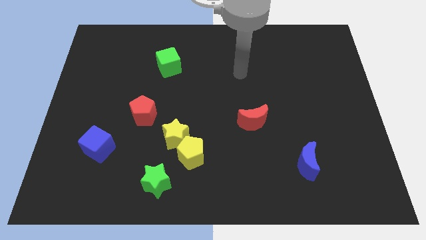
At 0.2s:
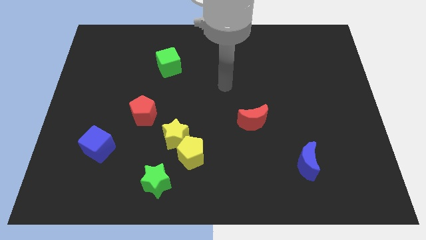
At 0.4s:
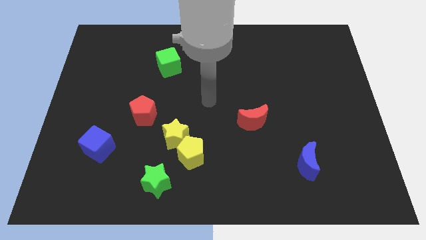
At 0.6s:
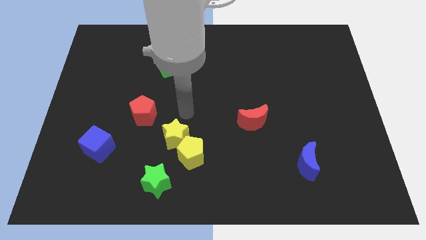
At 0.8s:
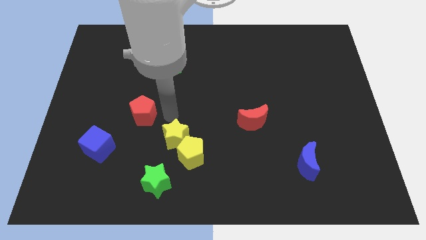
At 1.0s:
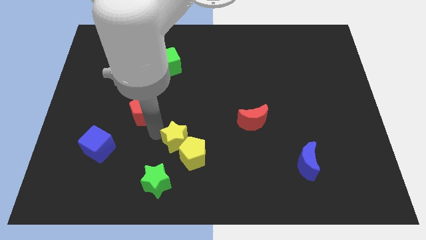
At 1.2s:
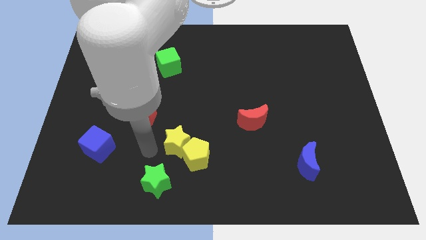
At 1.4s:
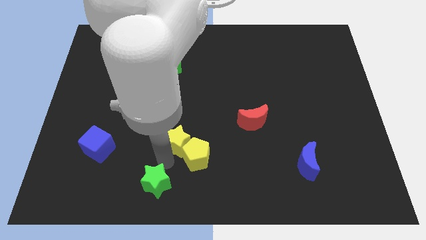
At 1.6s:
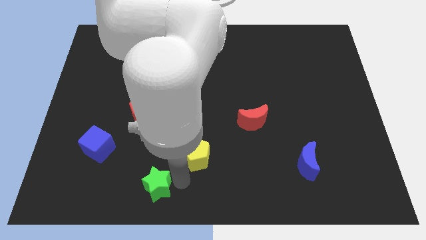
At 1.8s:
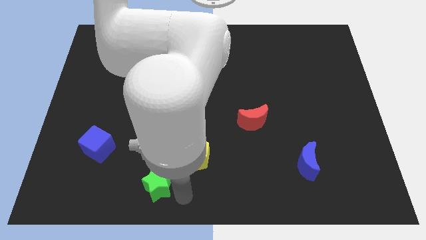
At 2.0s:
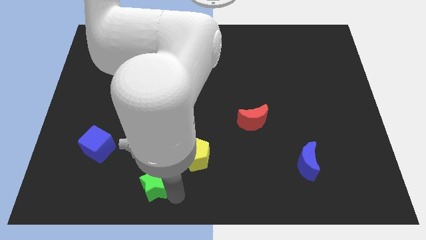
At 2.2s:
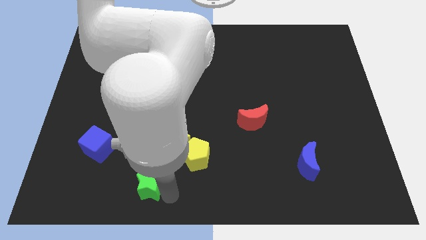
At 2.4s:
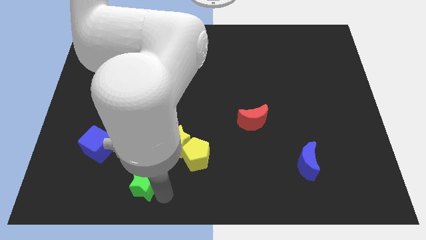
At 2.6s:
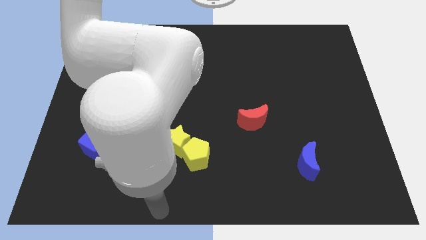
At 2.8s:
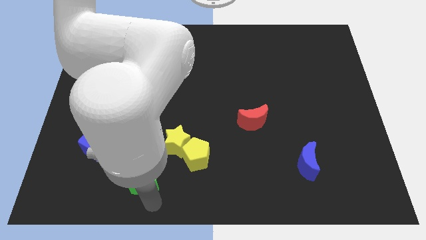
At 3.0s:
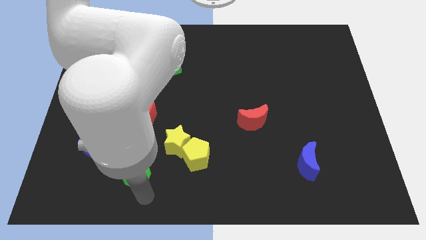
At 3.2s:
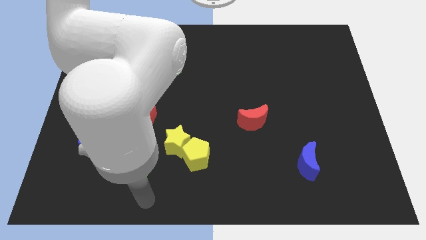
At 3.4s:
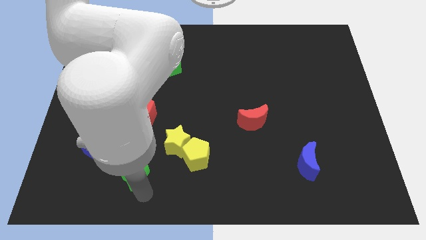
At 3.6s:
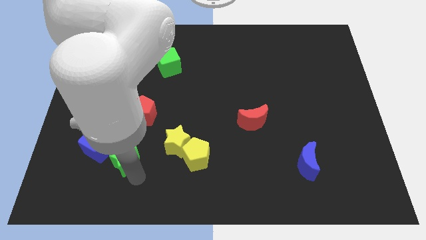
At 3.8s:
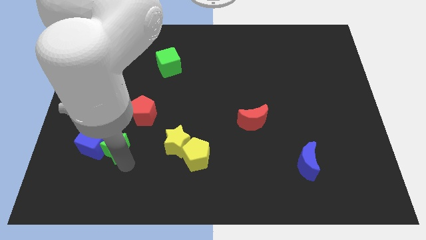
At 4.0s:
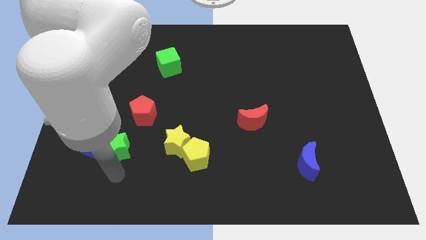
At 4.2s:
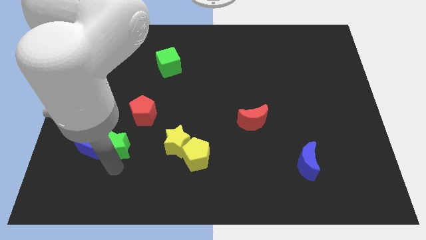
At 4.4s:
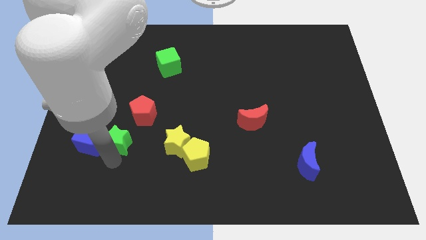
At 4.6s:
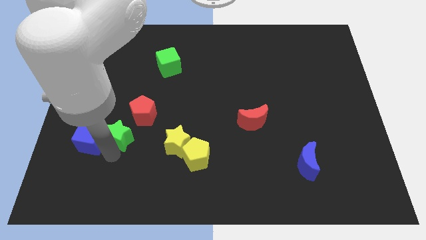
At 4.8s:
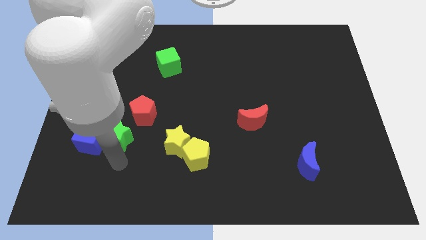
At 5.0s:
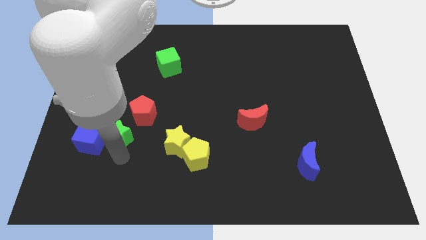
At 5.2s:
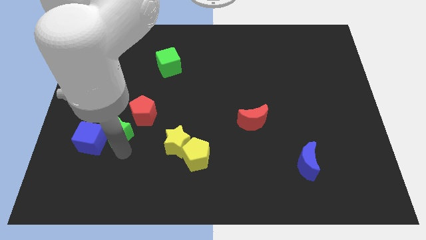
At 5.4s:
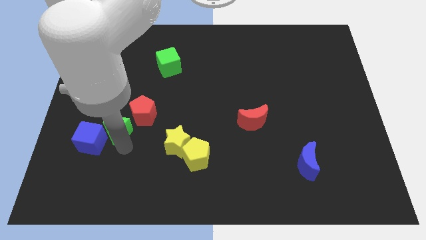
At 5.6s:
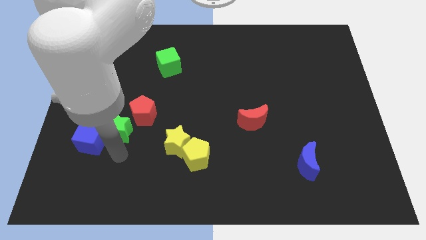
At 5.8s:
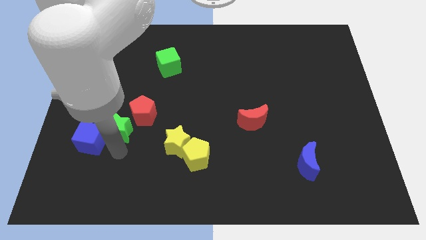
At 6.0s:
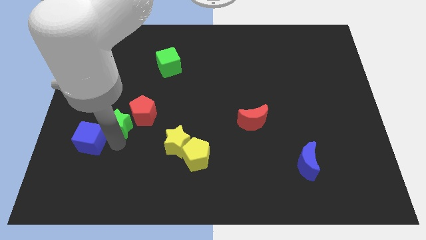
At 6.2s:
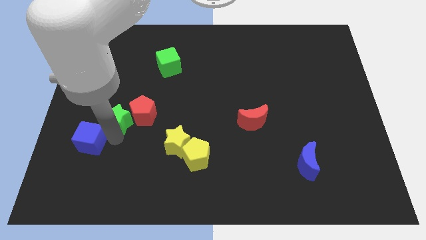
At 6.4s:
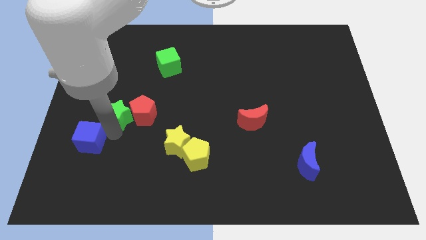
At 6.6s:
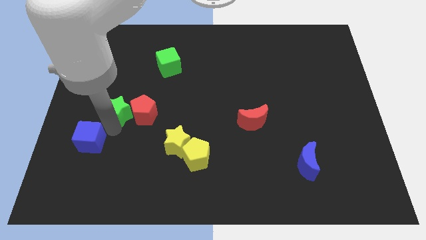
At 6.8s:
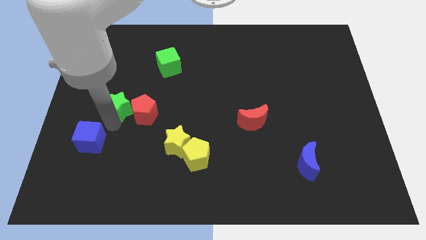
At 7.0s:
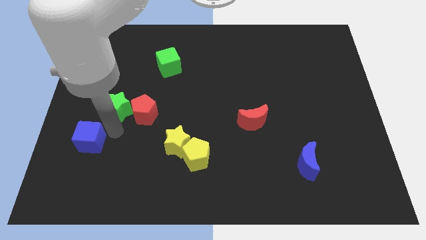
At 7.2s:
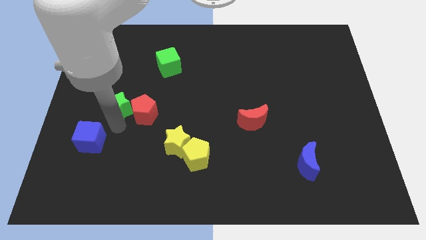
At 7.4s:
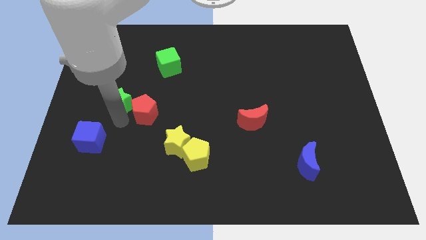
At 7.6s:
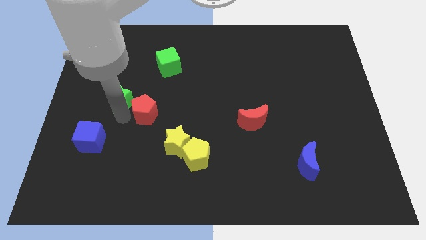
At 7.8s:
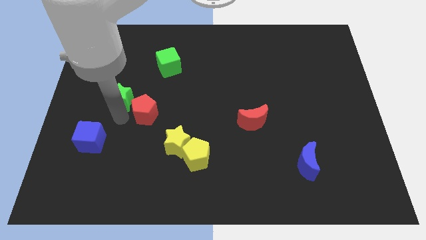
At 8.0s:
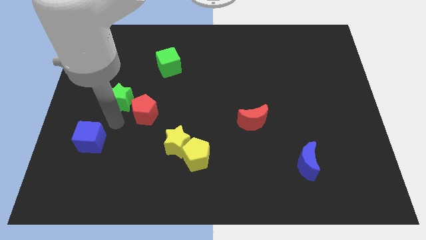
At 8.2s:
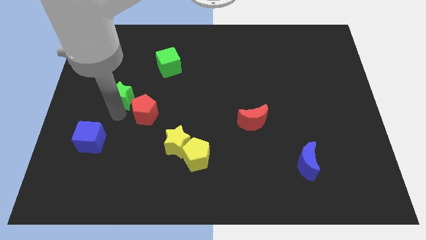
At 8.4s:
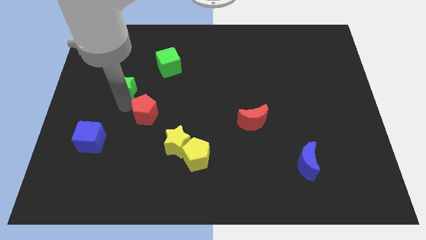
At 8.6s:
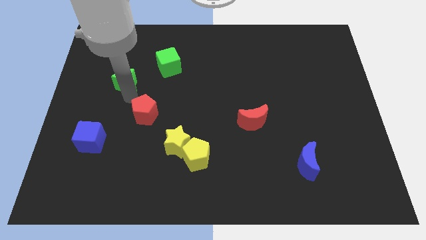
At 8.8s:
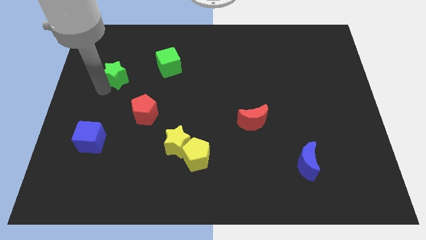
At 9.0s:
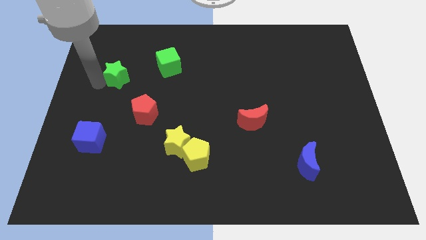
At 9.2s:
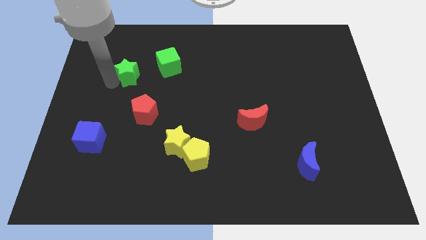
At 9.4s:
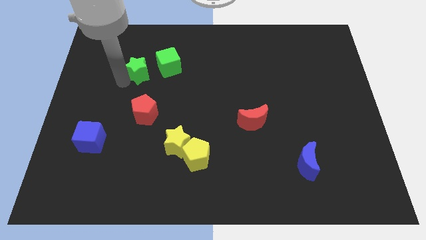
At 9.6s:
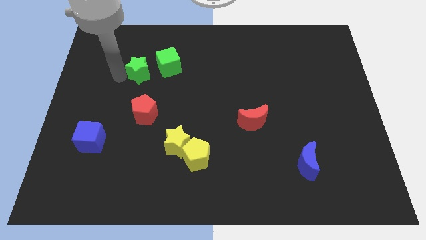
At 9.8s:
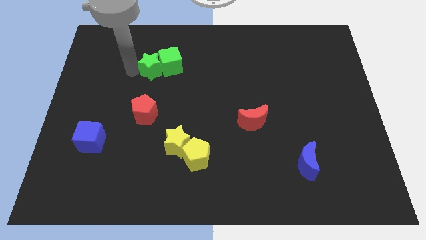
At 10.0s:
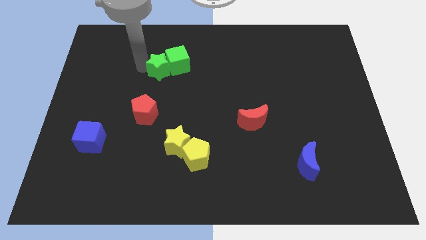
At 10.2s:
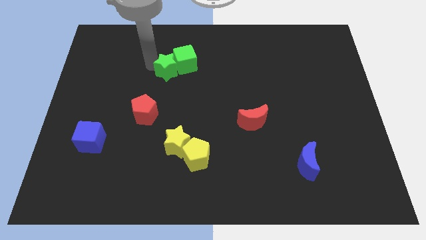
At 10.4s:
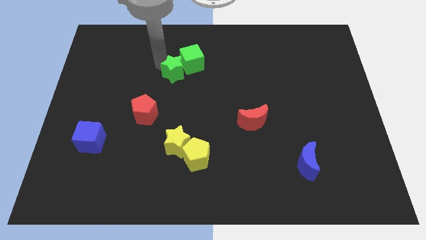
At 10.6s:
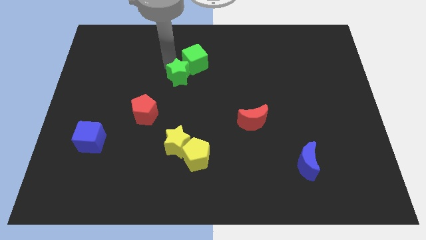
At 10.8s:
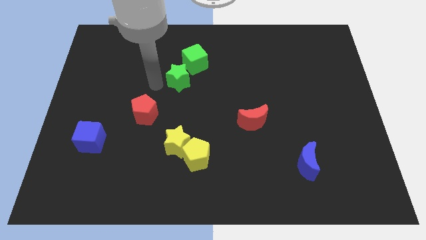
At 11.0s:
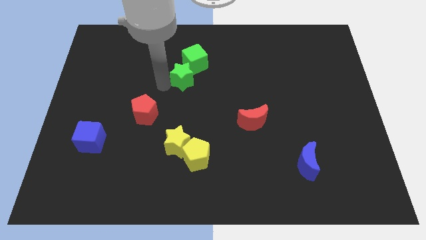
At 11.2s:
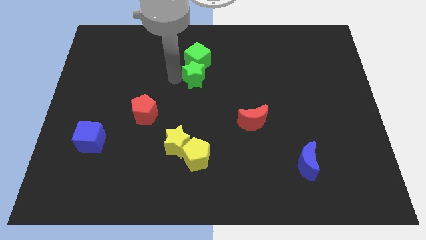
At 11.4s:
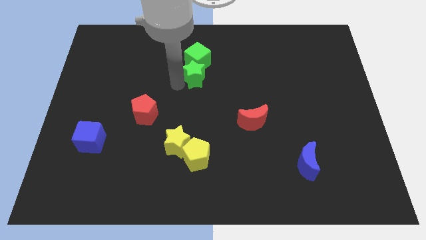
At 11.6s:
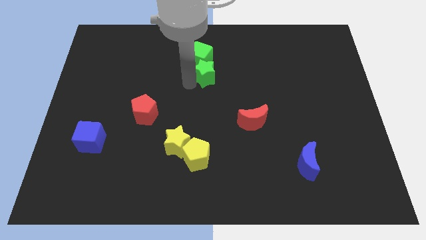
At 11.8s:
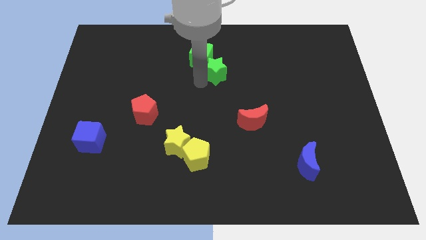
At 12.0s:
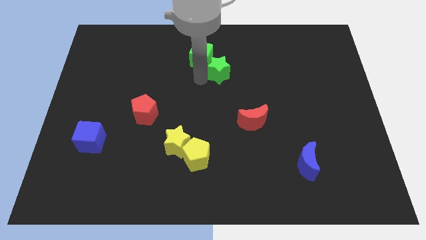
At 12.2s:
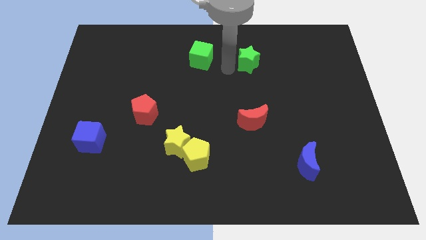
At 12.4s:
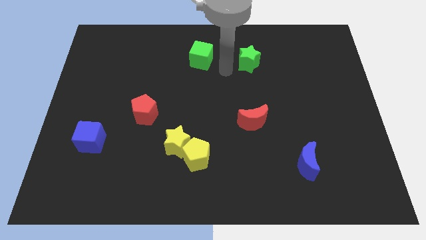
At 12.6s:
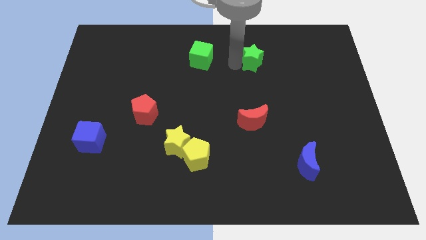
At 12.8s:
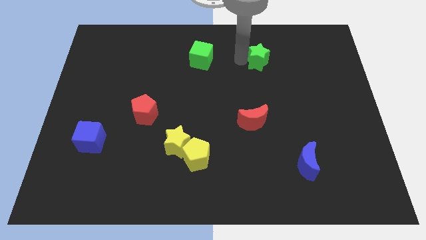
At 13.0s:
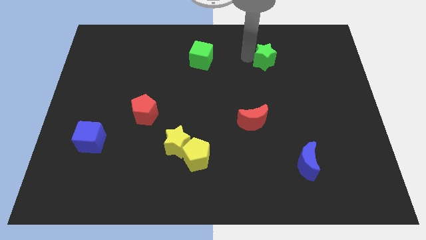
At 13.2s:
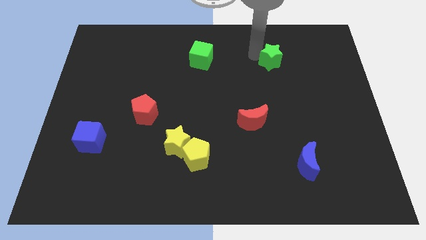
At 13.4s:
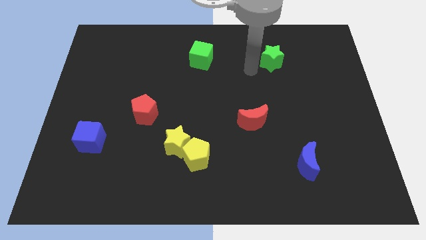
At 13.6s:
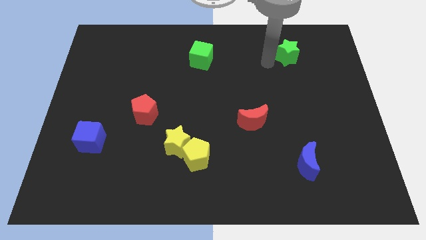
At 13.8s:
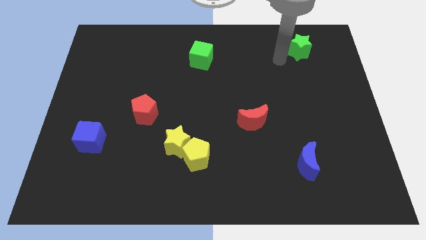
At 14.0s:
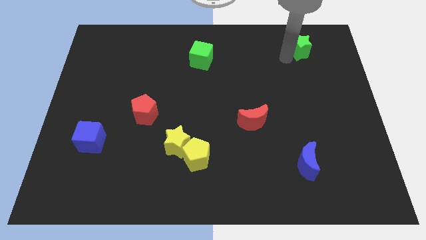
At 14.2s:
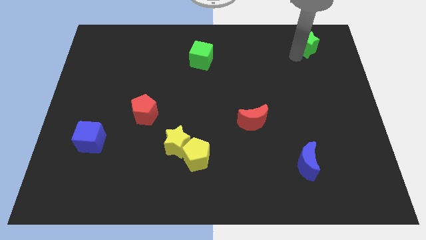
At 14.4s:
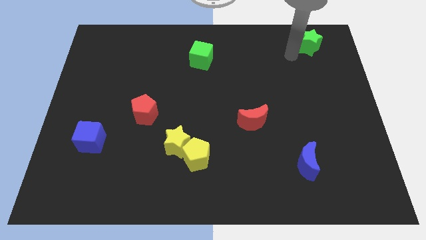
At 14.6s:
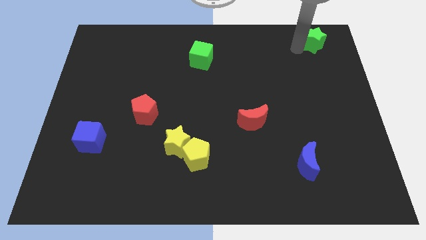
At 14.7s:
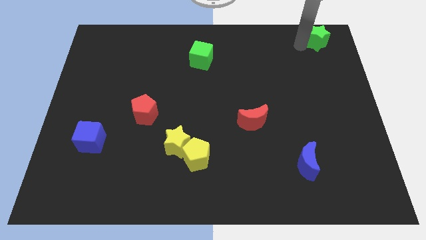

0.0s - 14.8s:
move the green star to the top right

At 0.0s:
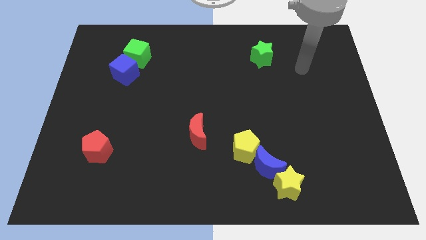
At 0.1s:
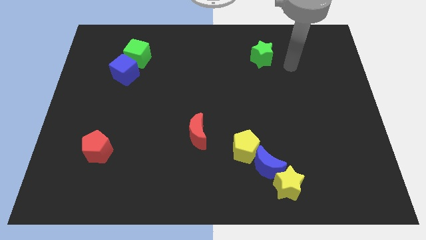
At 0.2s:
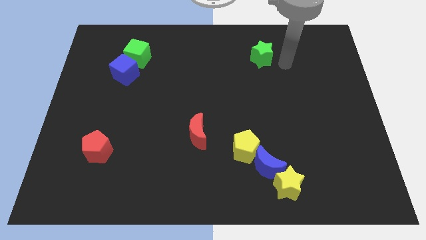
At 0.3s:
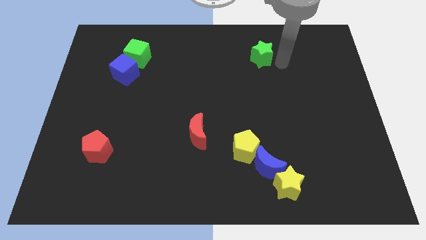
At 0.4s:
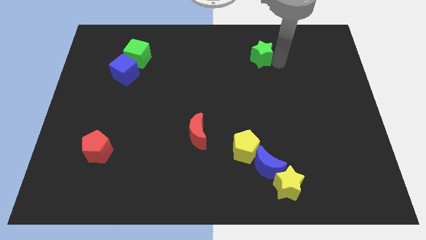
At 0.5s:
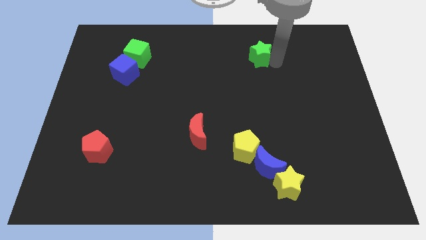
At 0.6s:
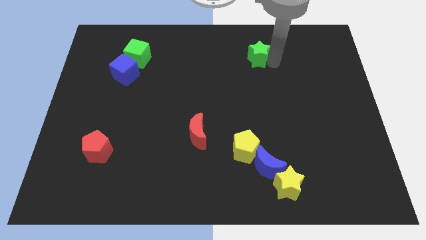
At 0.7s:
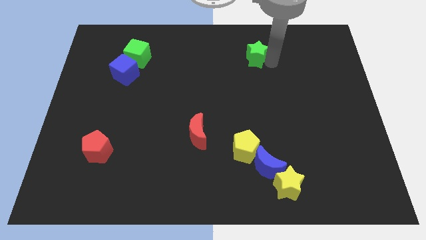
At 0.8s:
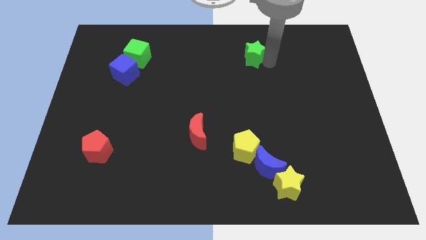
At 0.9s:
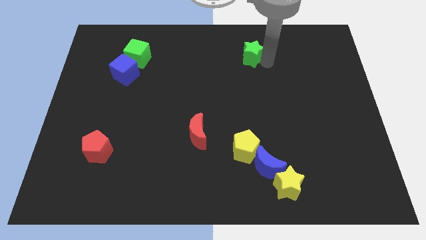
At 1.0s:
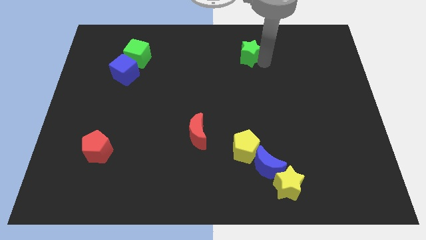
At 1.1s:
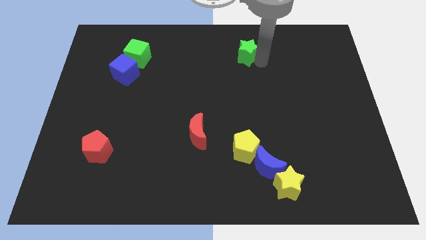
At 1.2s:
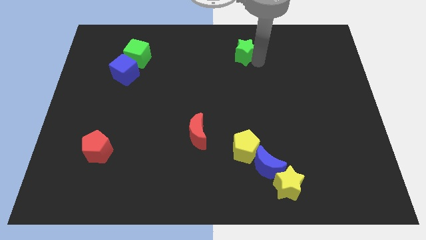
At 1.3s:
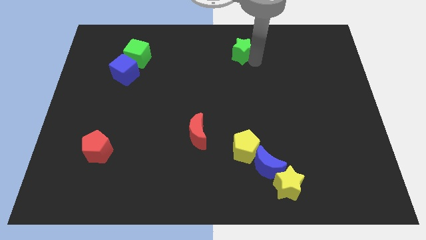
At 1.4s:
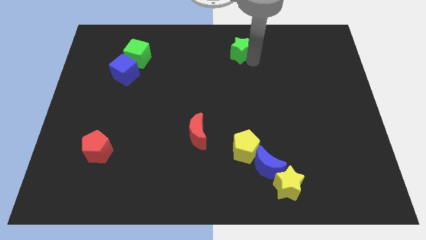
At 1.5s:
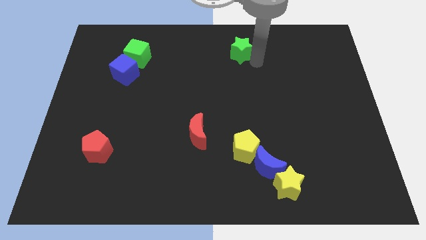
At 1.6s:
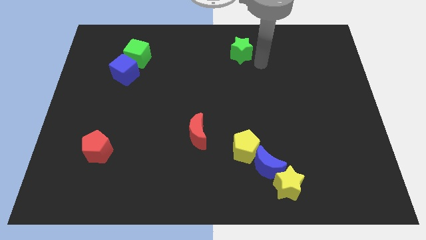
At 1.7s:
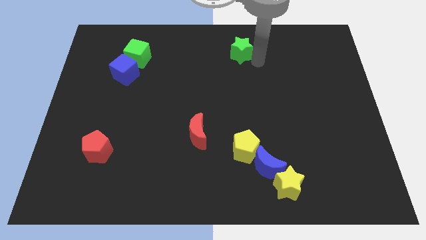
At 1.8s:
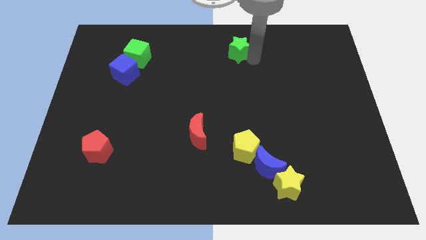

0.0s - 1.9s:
push the green star to the top side
